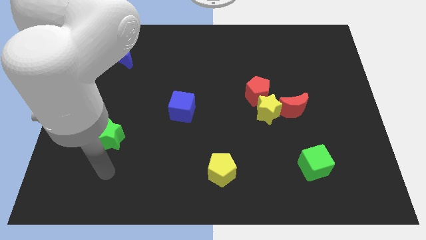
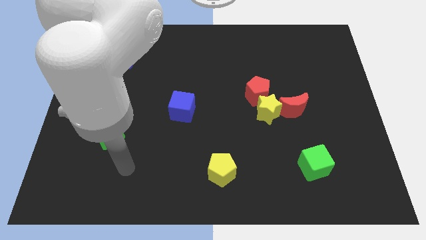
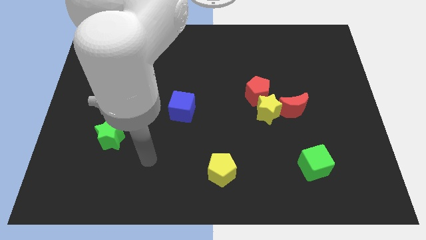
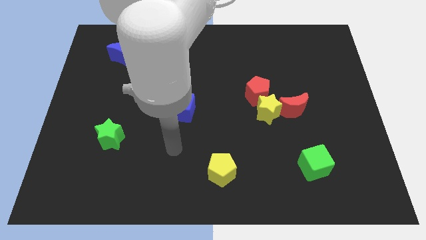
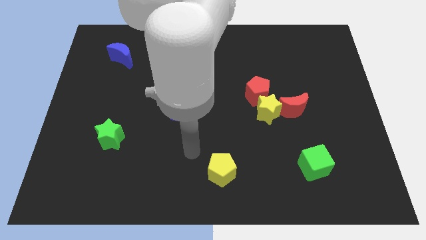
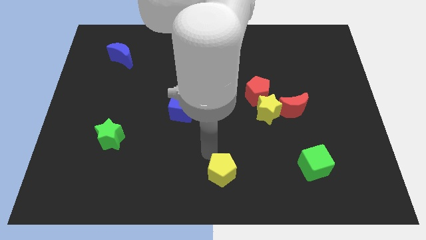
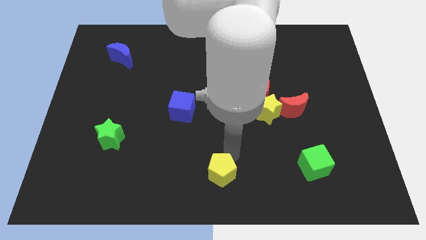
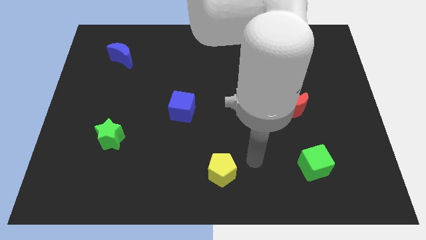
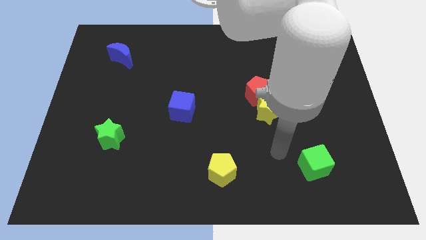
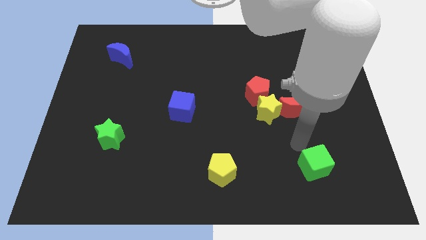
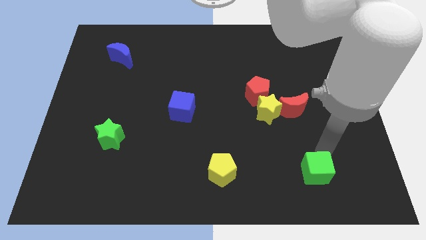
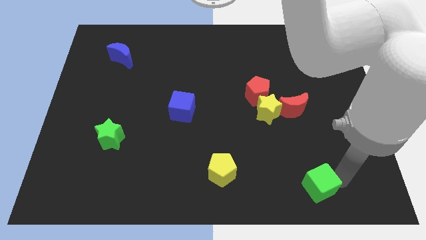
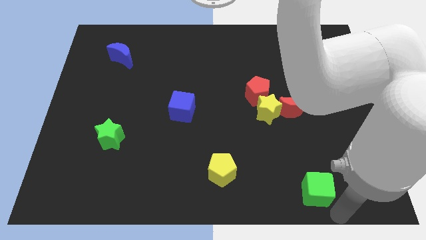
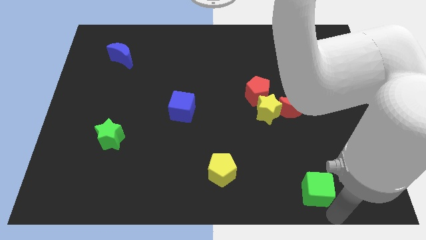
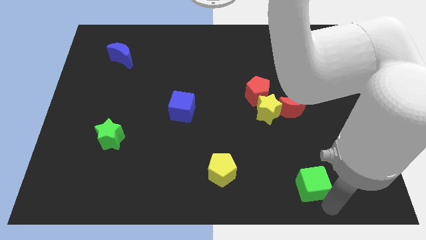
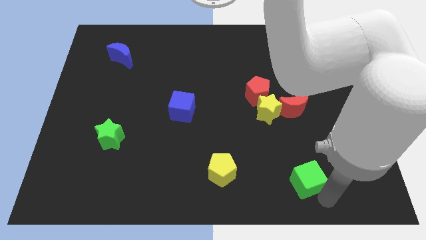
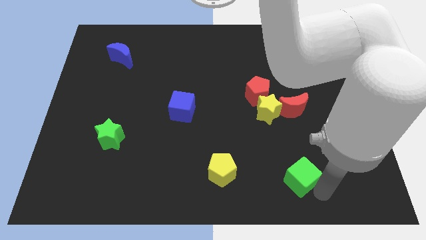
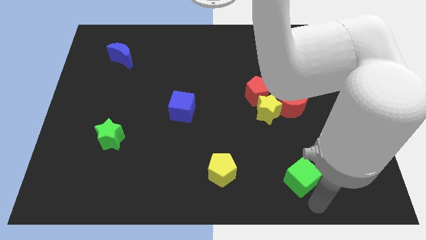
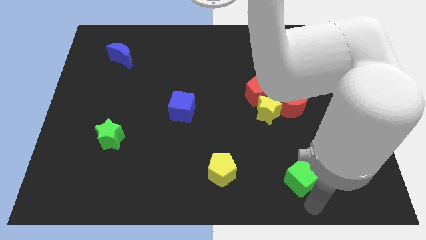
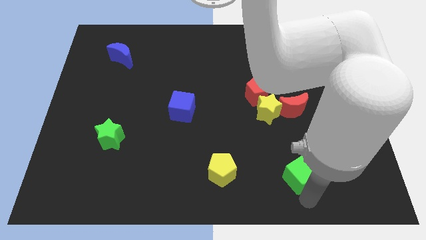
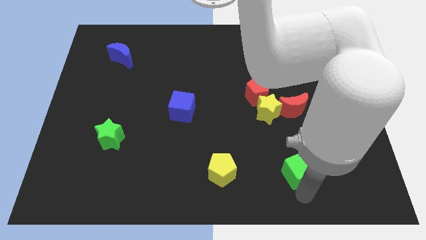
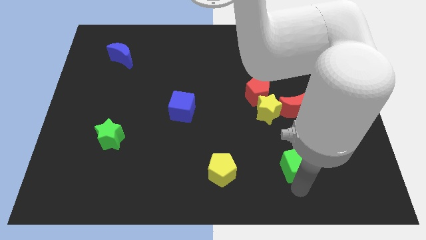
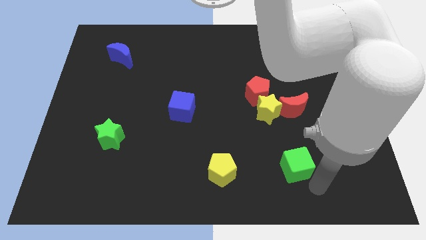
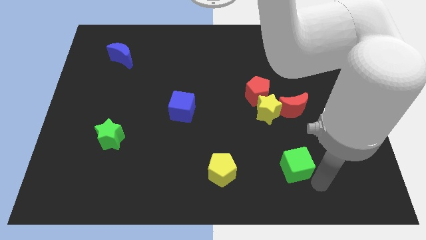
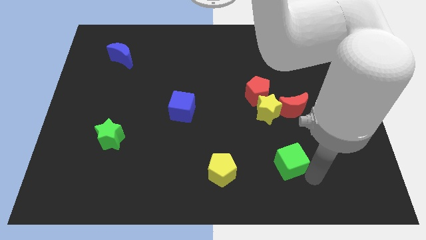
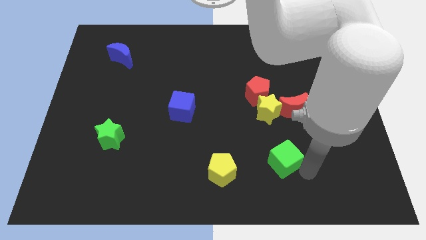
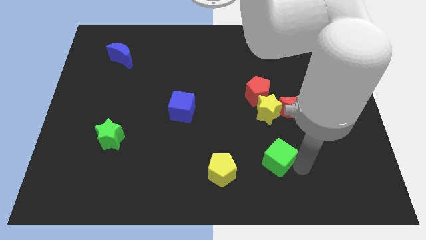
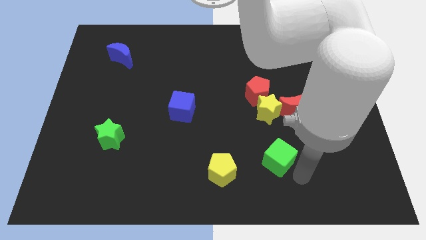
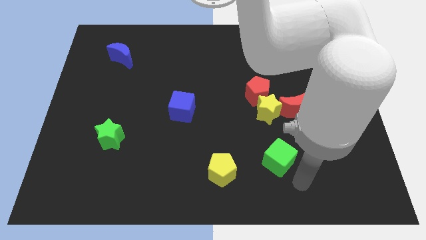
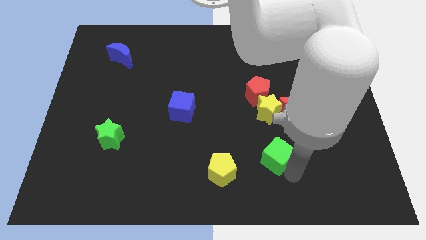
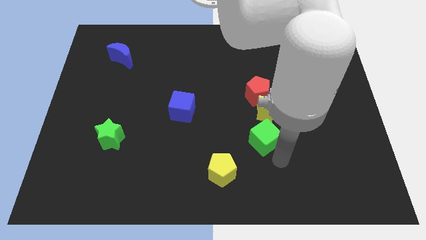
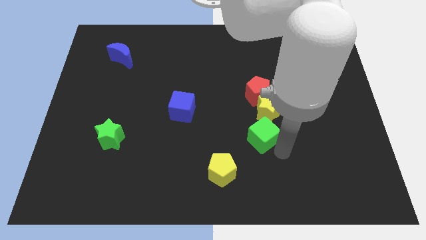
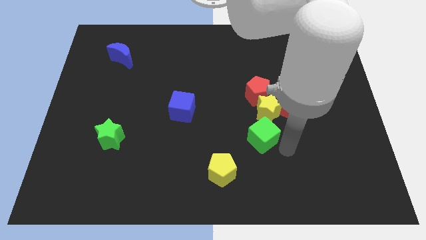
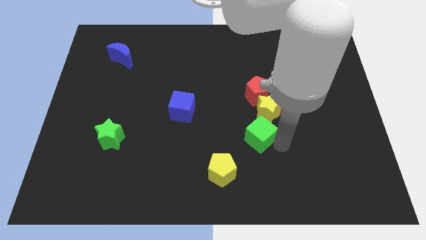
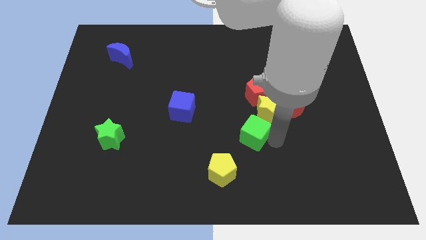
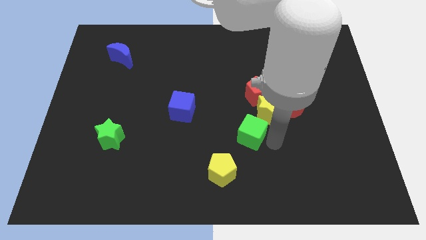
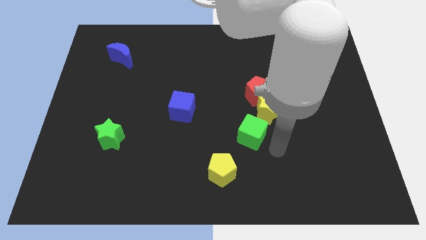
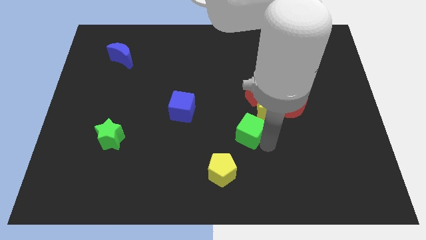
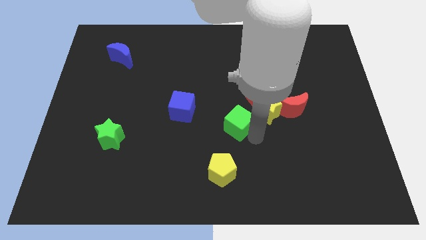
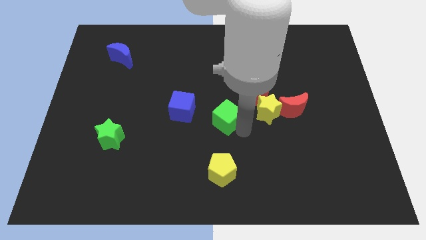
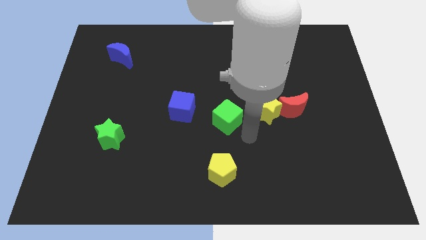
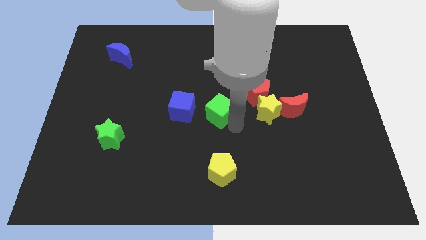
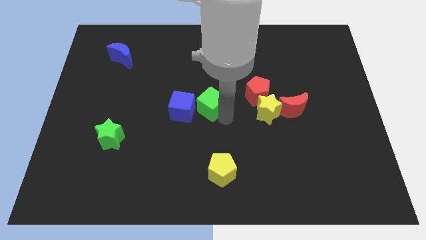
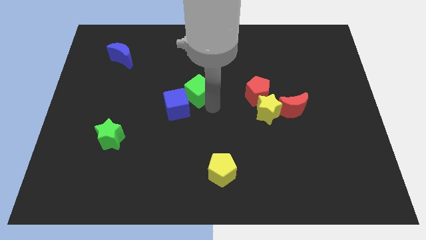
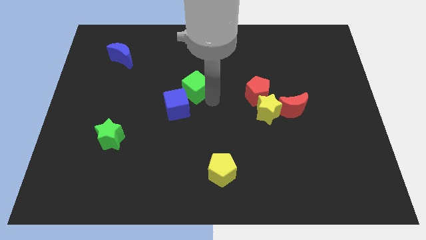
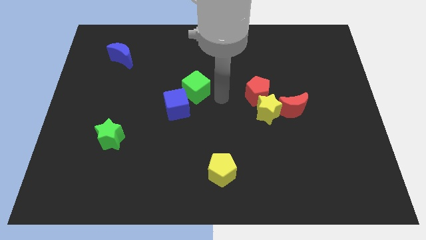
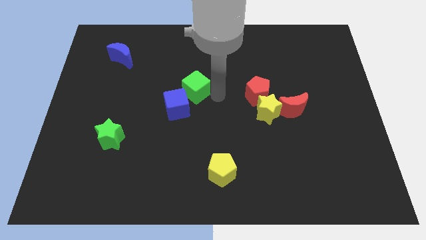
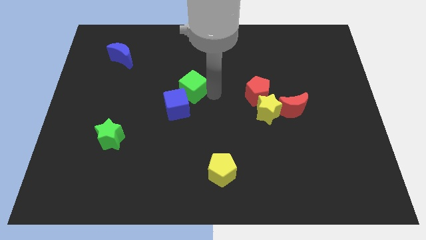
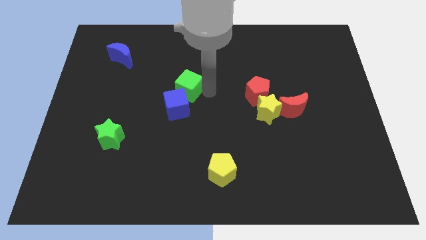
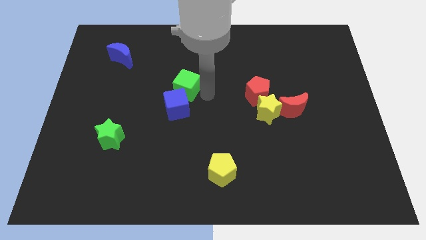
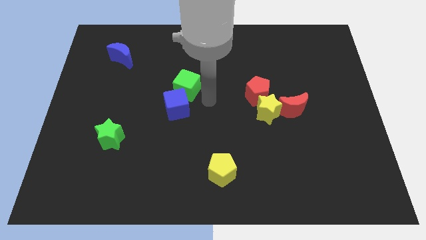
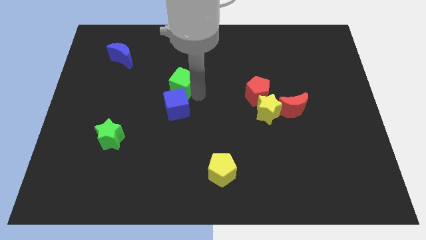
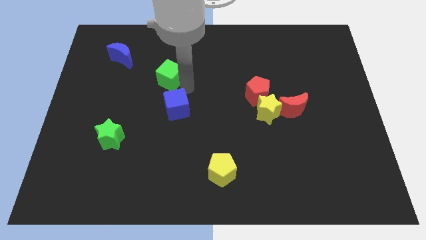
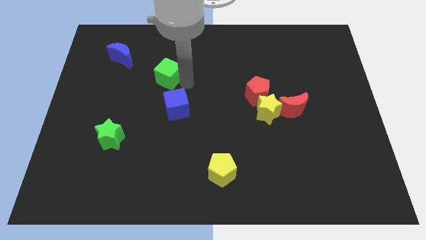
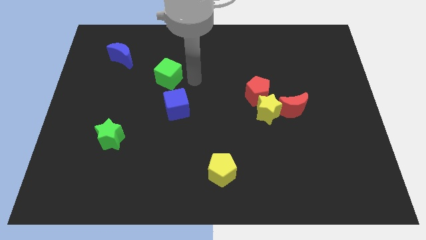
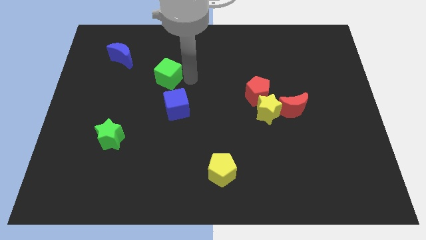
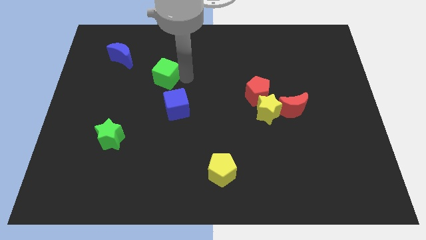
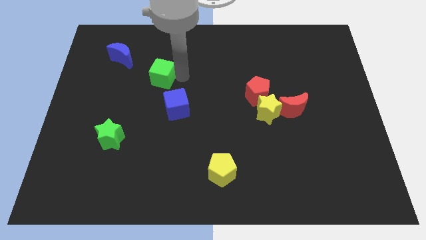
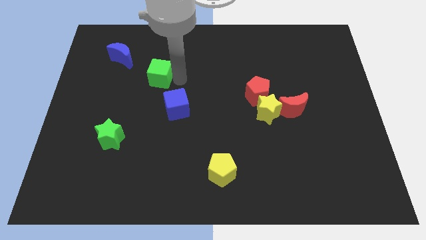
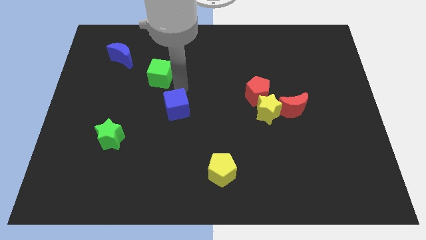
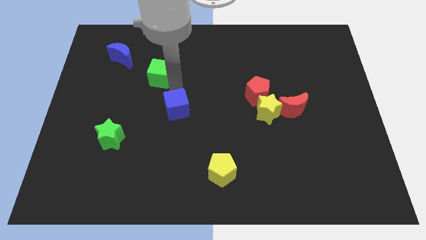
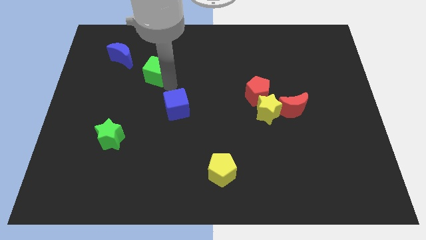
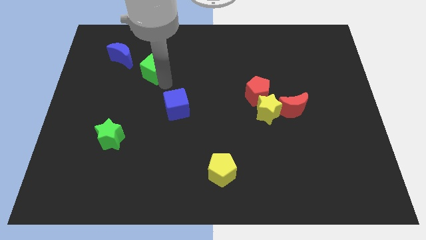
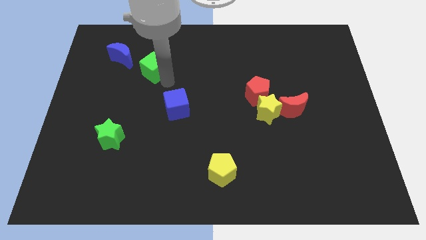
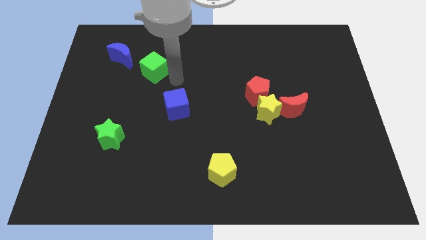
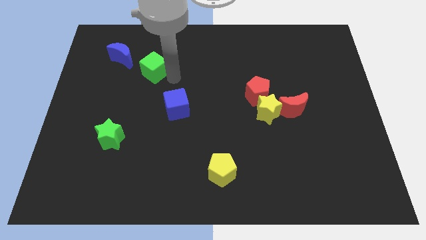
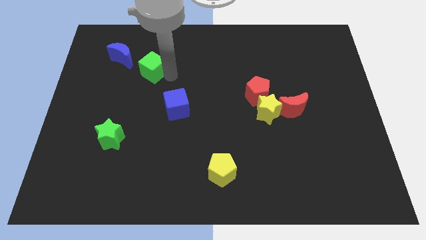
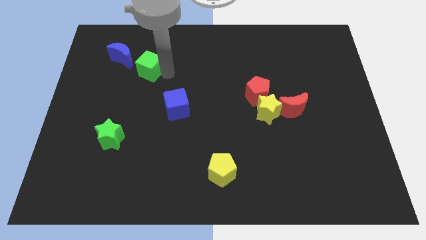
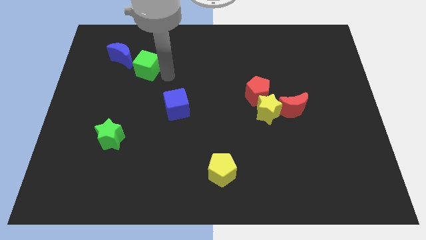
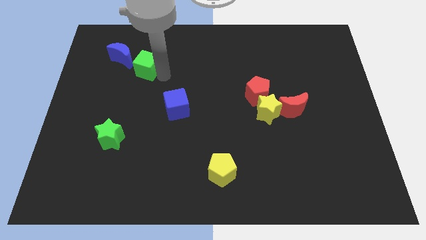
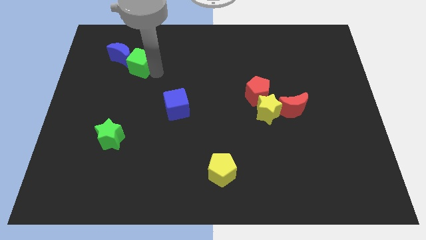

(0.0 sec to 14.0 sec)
put the green cube close to the blue moon

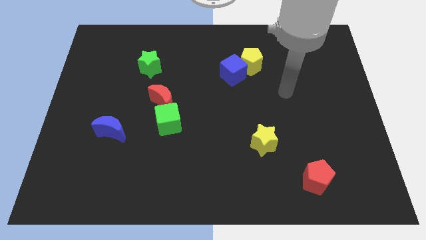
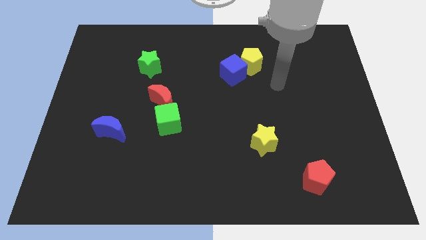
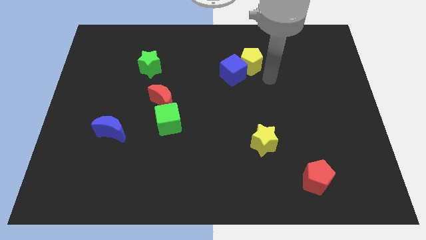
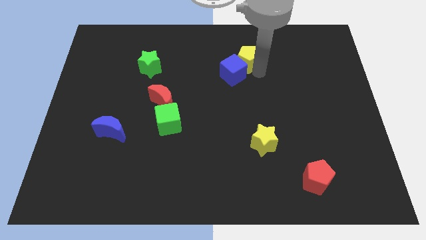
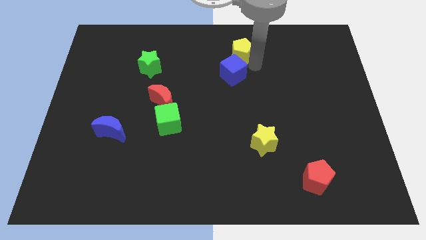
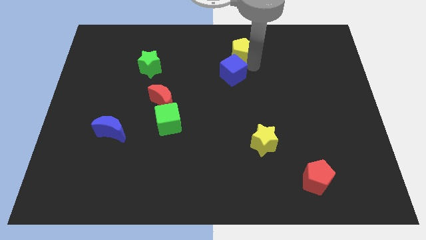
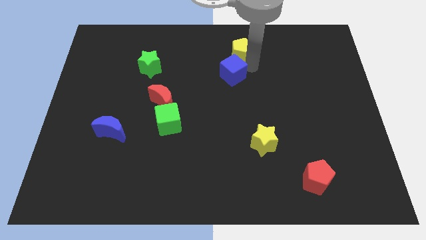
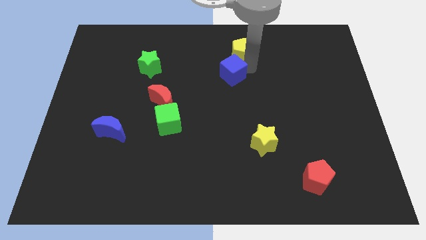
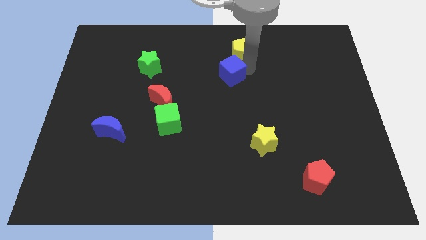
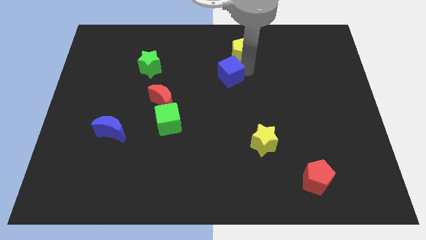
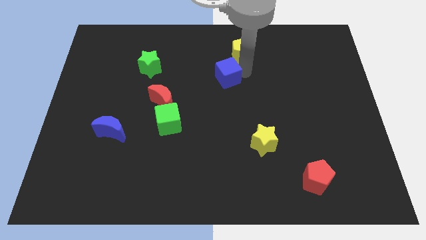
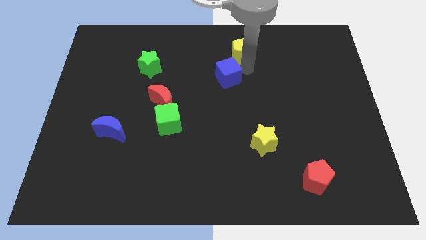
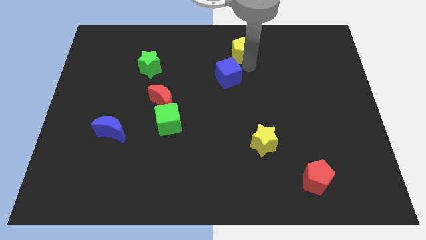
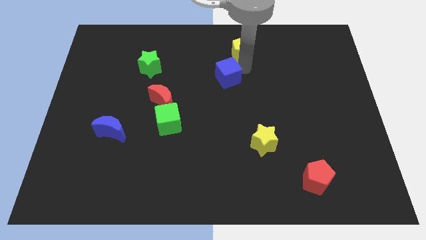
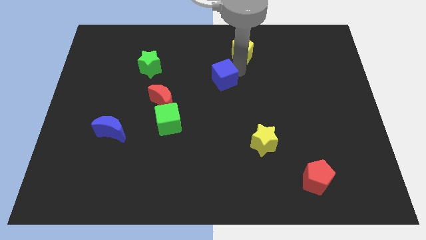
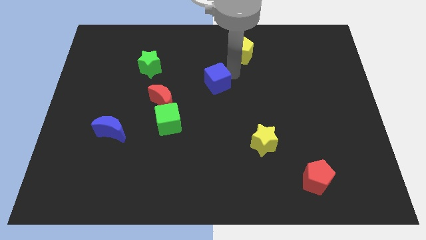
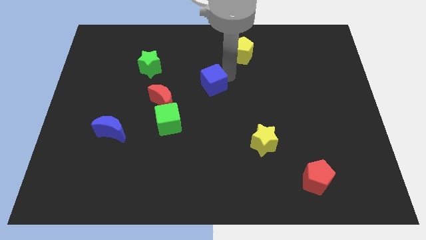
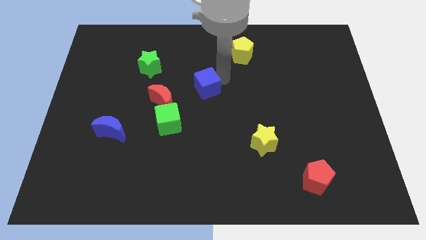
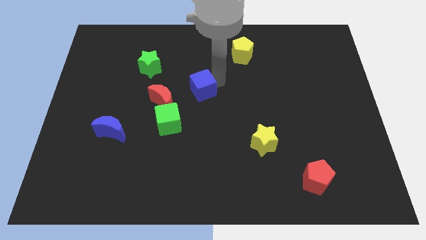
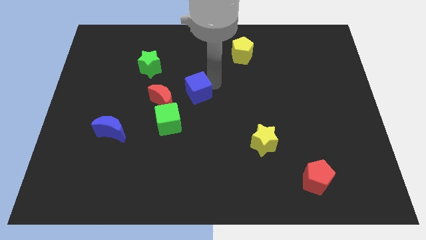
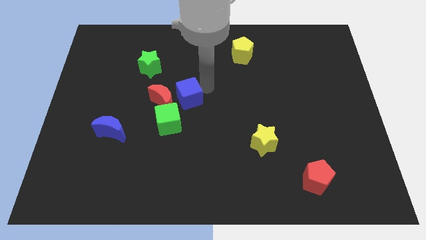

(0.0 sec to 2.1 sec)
push the blue cube next to the red moon
